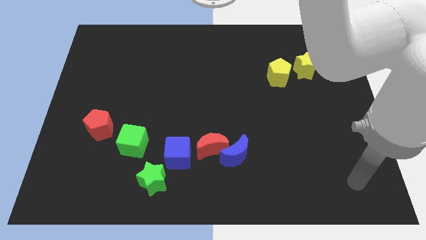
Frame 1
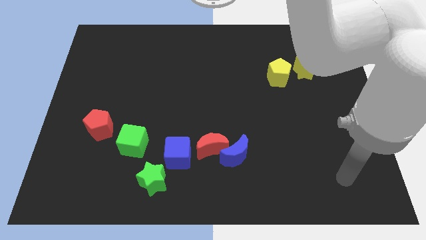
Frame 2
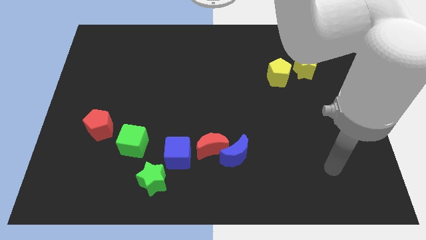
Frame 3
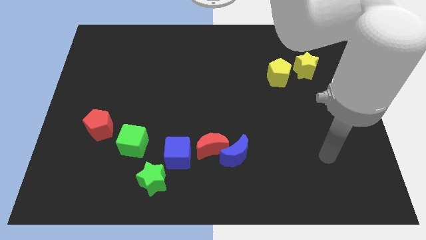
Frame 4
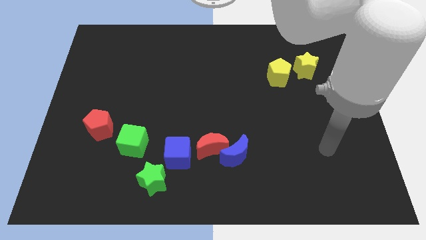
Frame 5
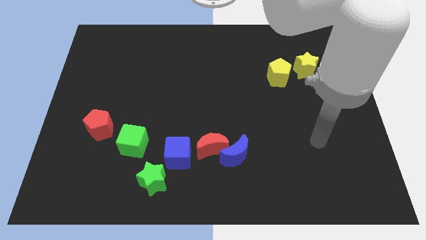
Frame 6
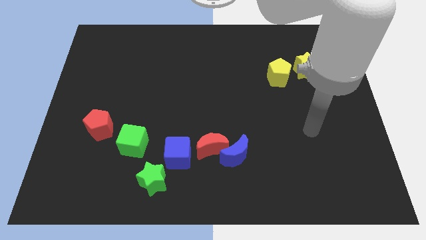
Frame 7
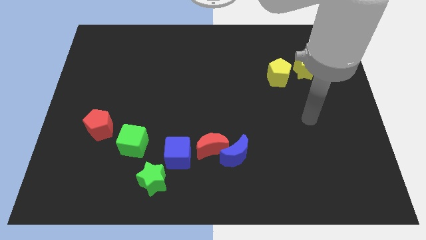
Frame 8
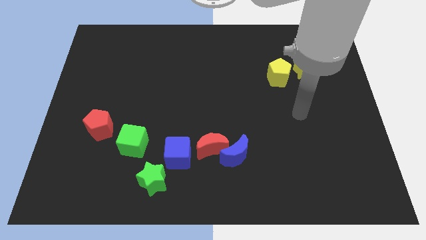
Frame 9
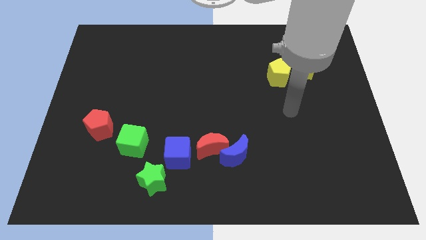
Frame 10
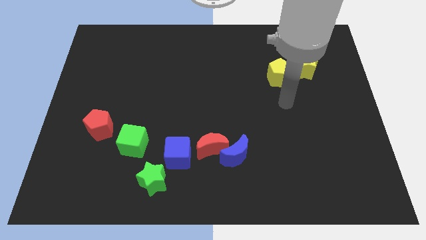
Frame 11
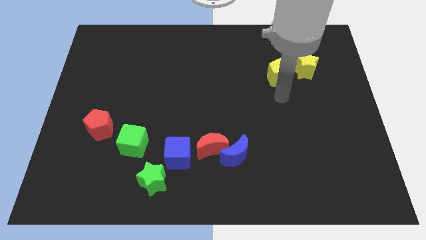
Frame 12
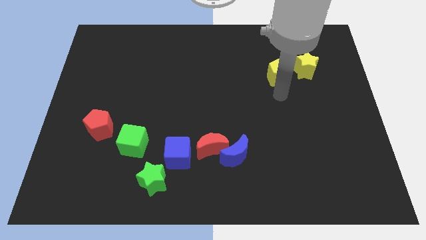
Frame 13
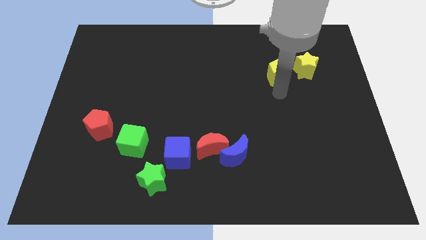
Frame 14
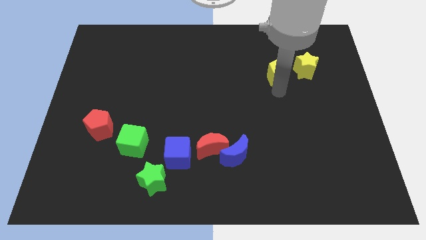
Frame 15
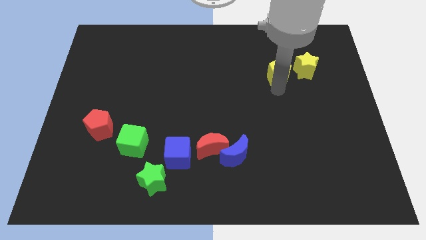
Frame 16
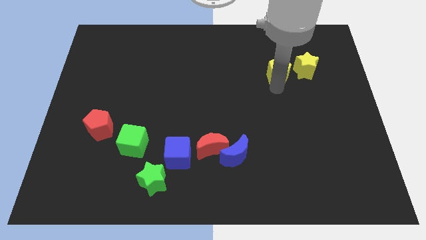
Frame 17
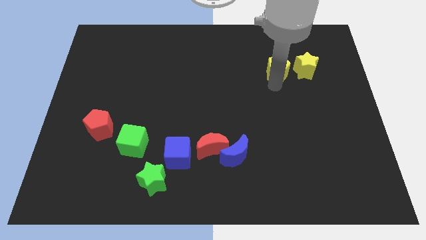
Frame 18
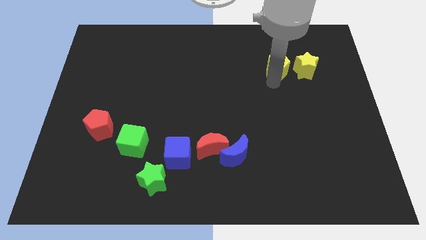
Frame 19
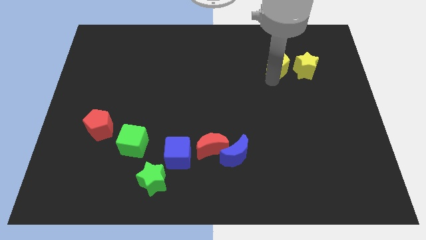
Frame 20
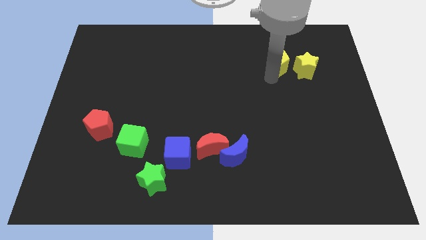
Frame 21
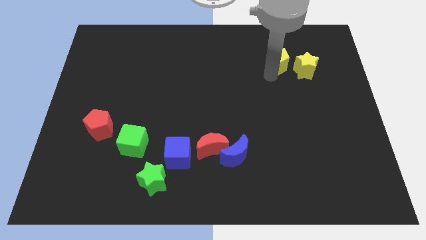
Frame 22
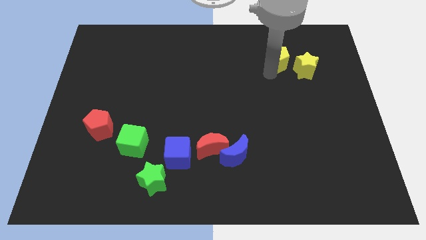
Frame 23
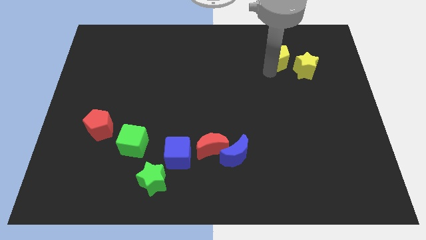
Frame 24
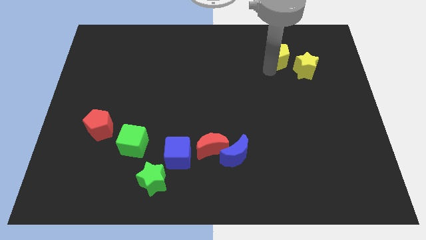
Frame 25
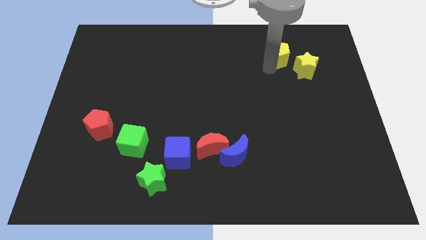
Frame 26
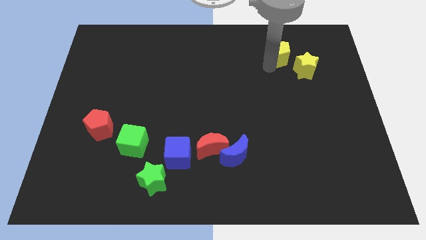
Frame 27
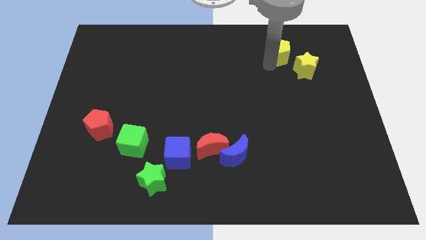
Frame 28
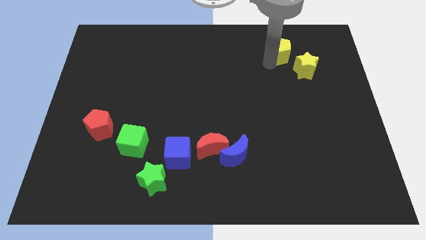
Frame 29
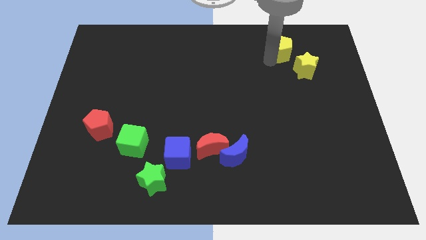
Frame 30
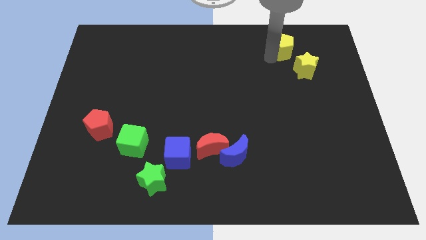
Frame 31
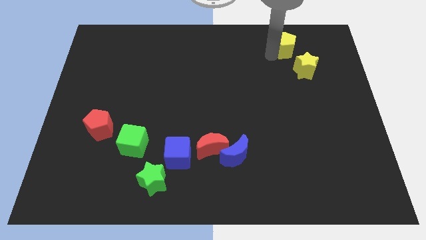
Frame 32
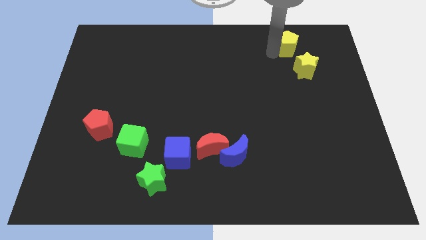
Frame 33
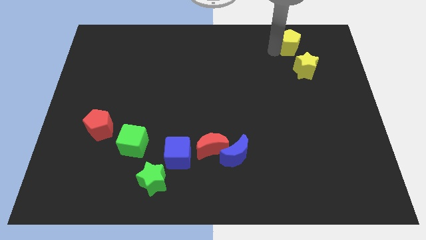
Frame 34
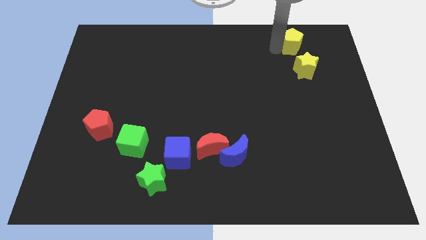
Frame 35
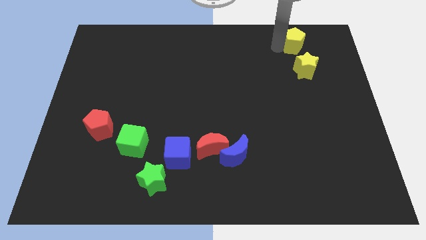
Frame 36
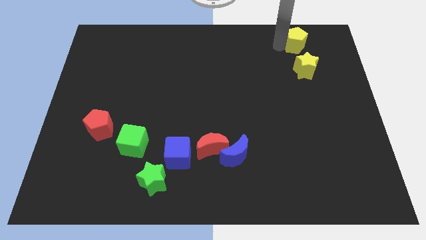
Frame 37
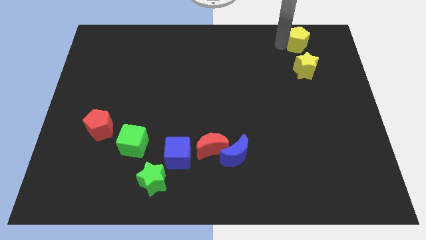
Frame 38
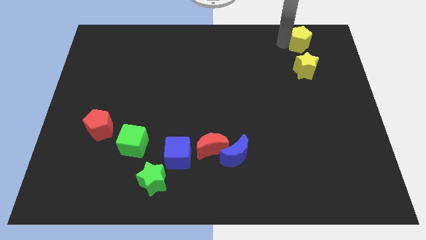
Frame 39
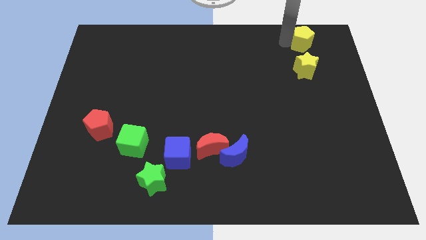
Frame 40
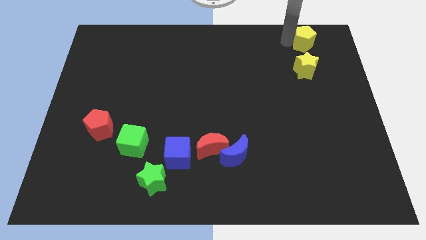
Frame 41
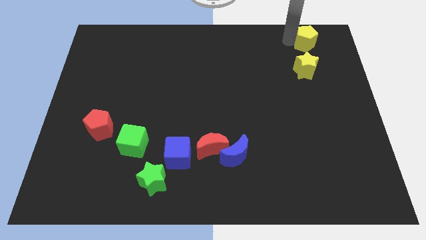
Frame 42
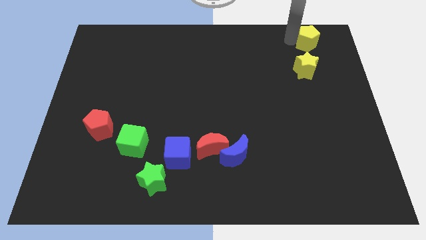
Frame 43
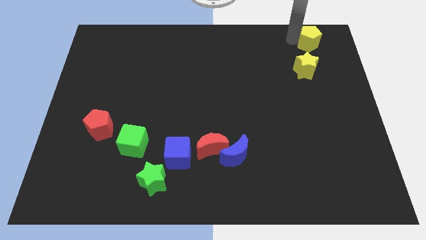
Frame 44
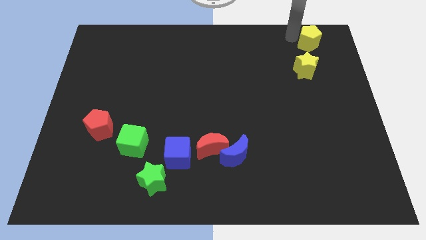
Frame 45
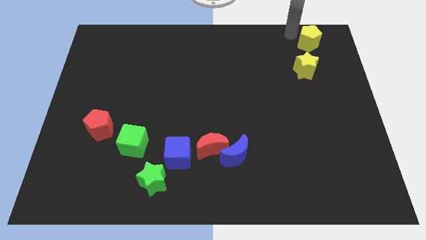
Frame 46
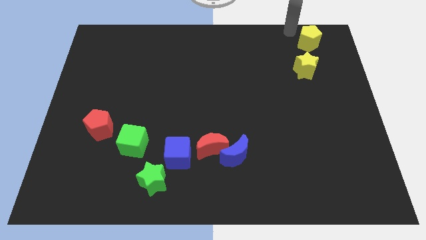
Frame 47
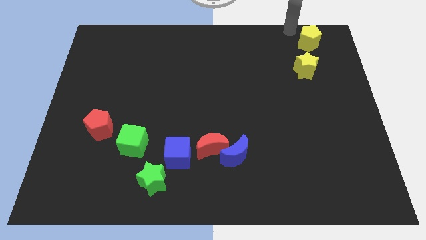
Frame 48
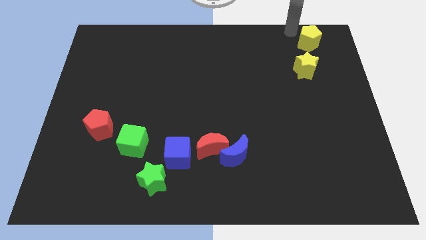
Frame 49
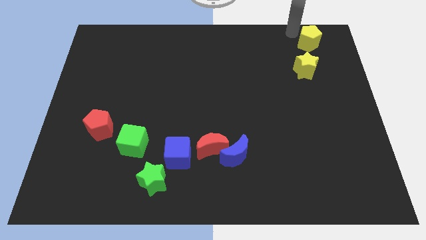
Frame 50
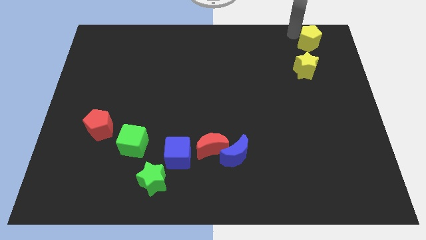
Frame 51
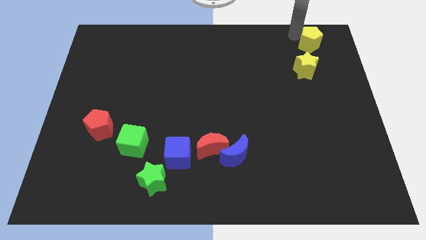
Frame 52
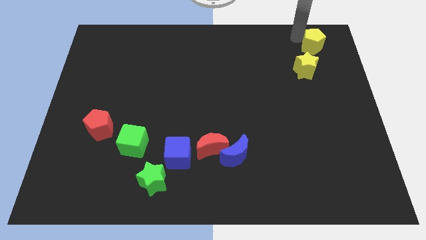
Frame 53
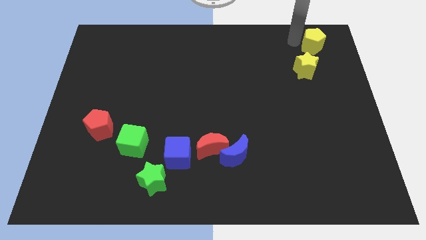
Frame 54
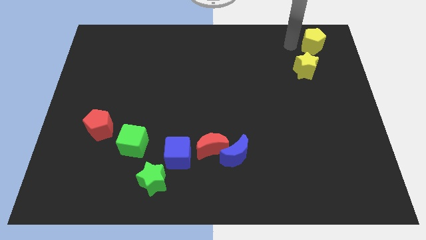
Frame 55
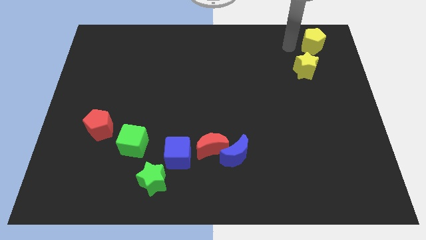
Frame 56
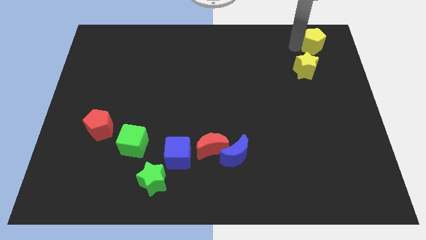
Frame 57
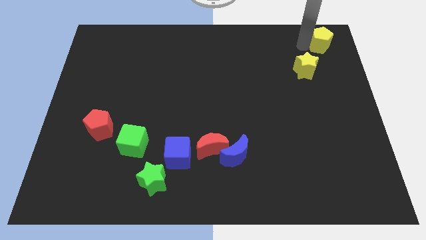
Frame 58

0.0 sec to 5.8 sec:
move the yellow pentagon to the top right corner

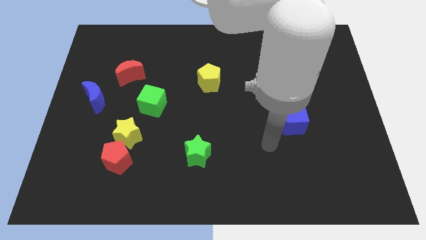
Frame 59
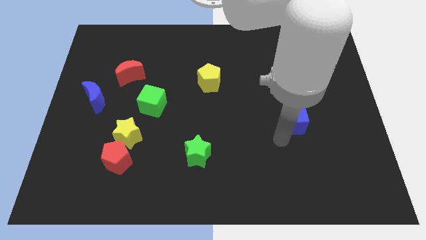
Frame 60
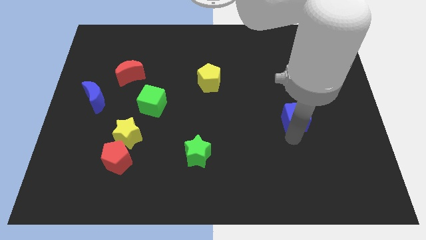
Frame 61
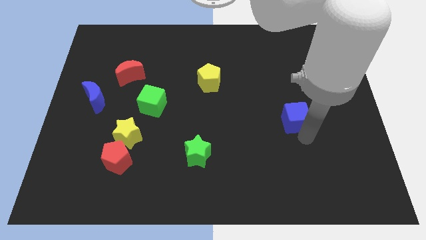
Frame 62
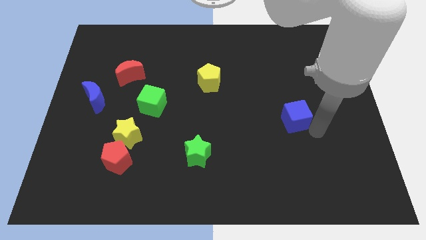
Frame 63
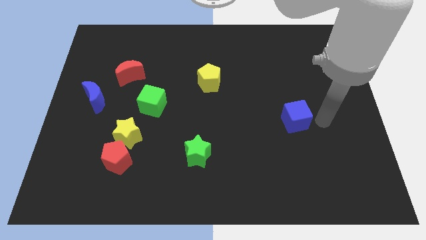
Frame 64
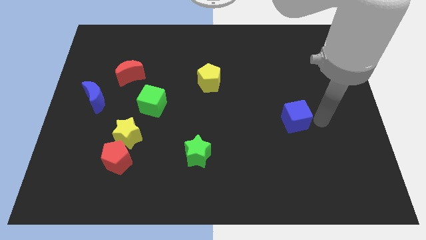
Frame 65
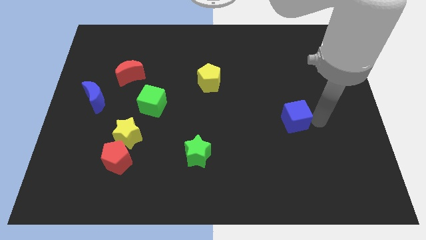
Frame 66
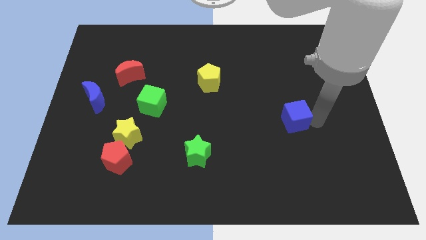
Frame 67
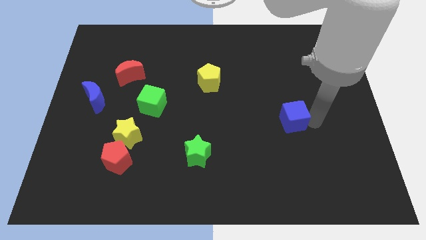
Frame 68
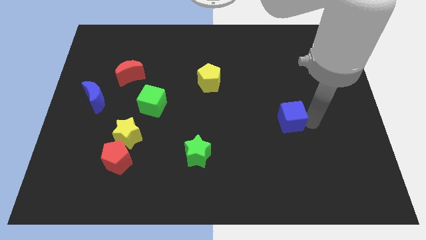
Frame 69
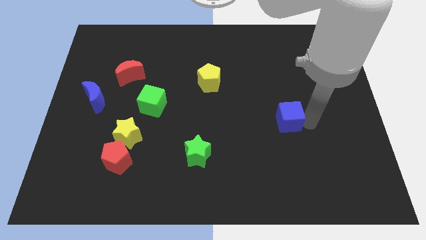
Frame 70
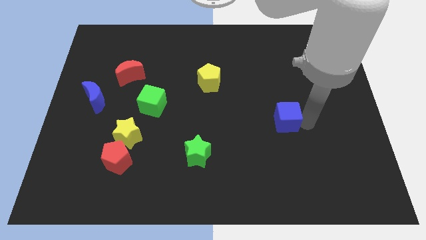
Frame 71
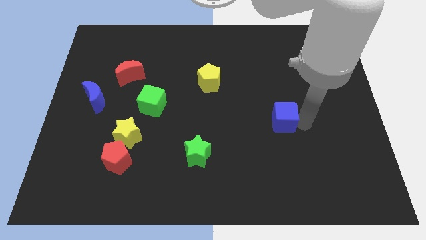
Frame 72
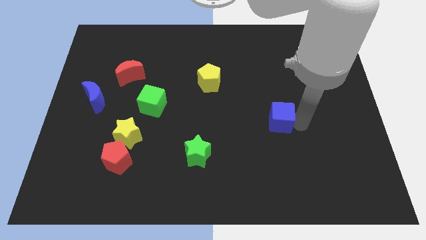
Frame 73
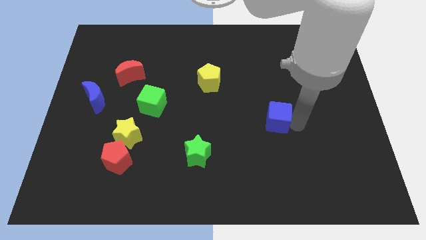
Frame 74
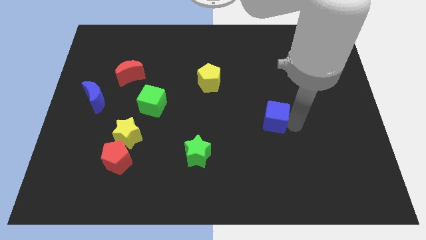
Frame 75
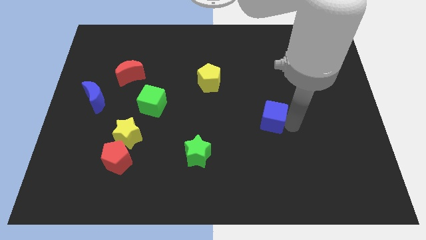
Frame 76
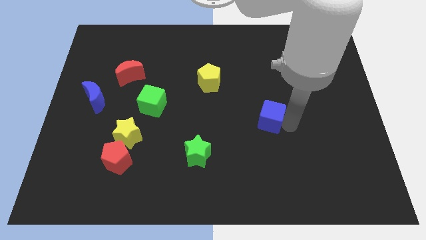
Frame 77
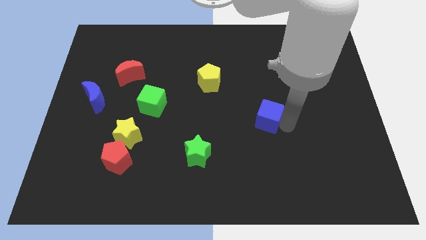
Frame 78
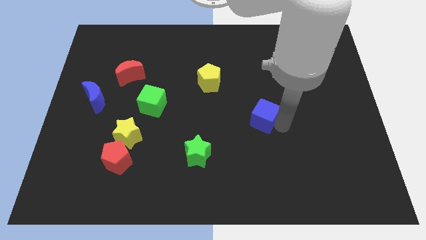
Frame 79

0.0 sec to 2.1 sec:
slide the blue cube to the middle of the board
